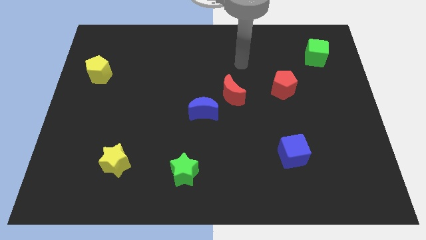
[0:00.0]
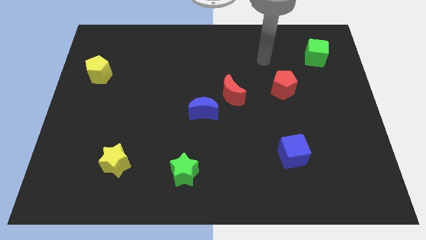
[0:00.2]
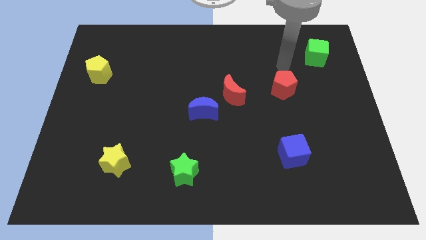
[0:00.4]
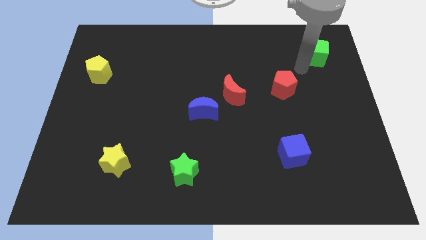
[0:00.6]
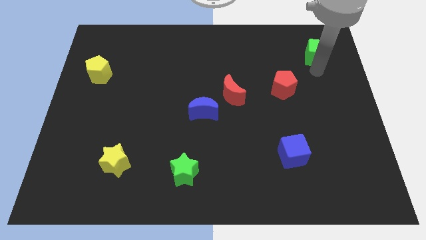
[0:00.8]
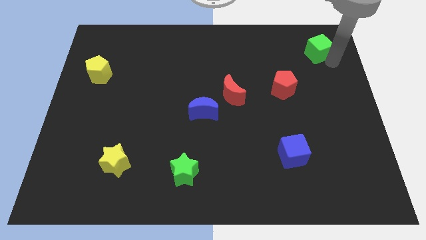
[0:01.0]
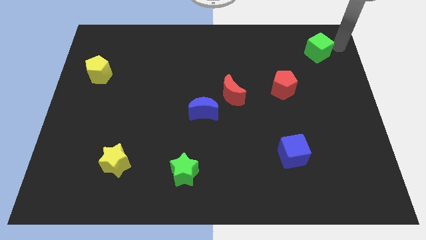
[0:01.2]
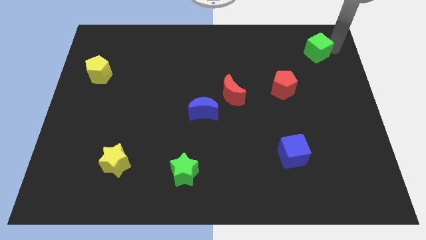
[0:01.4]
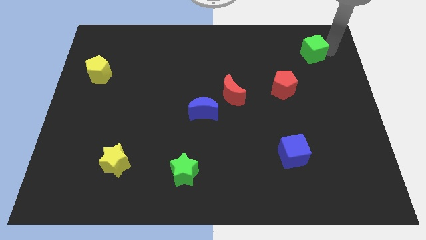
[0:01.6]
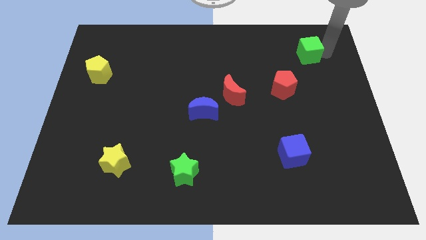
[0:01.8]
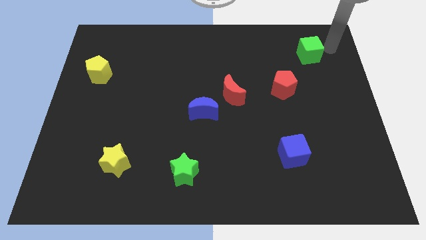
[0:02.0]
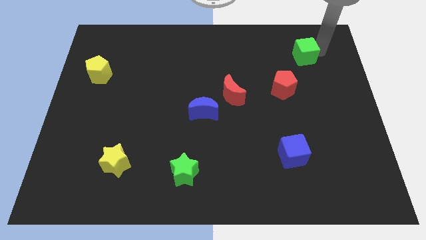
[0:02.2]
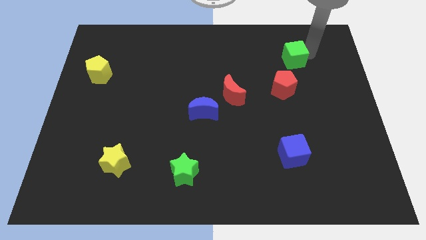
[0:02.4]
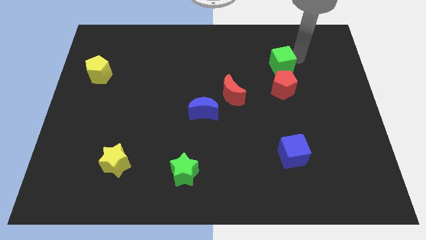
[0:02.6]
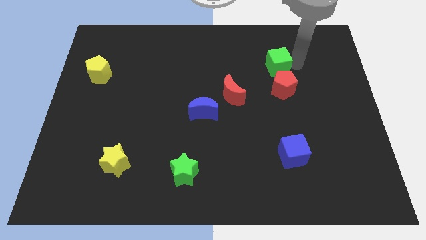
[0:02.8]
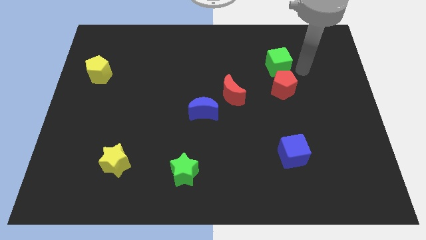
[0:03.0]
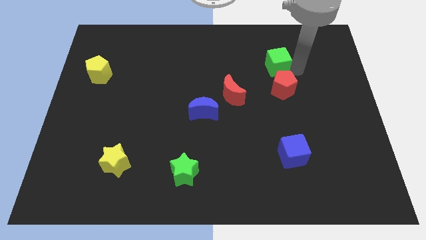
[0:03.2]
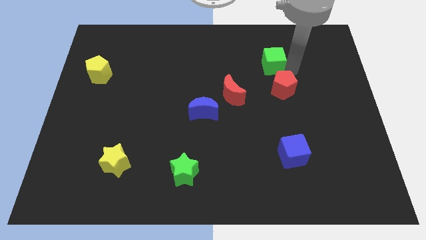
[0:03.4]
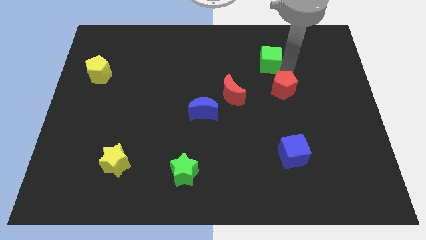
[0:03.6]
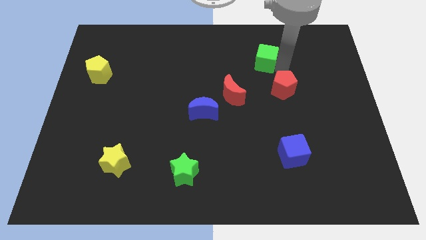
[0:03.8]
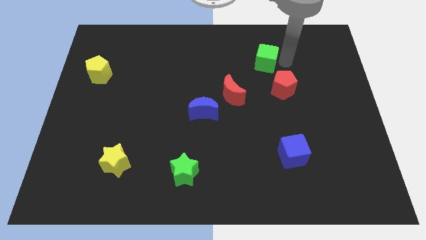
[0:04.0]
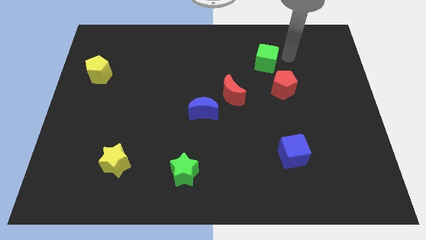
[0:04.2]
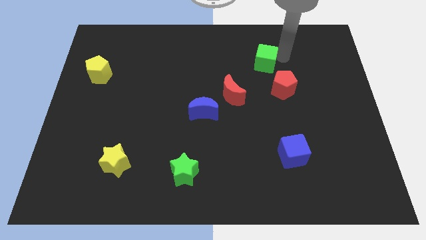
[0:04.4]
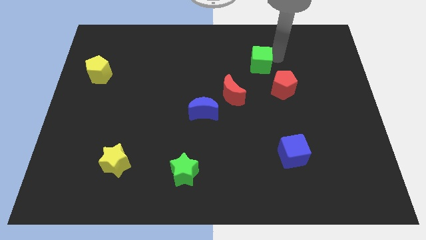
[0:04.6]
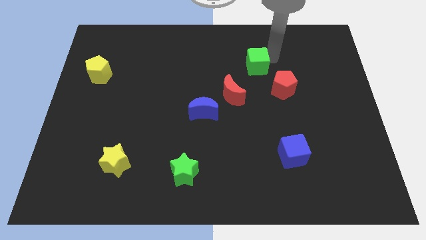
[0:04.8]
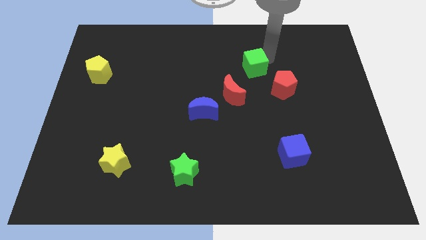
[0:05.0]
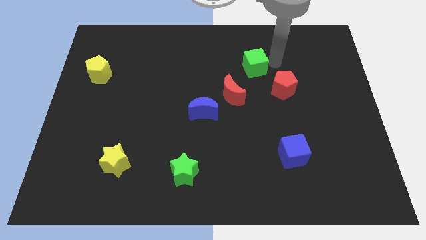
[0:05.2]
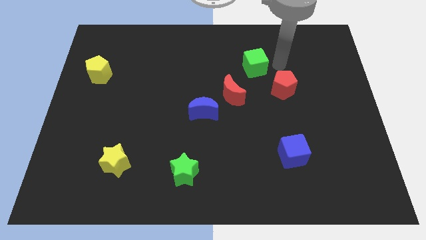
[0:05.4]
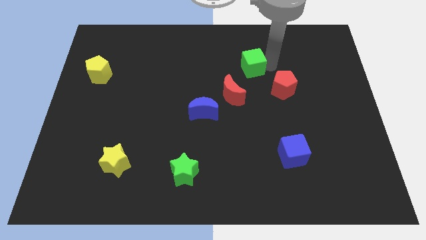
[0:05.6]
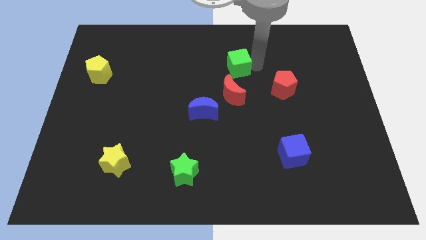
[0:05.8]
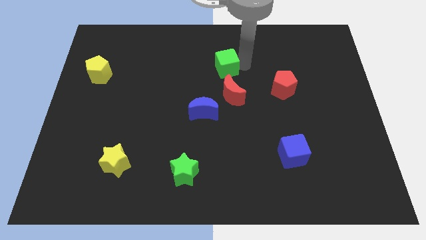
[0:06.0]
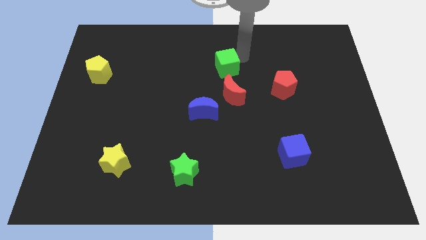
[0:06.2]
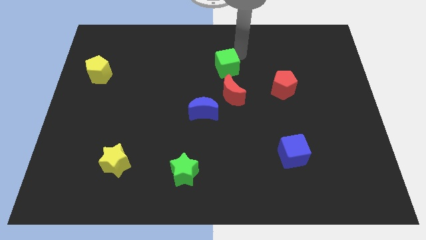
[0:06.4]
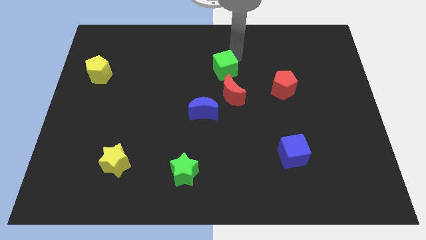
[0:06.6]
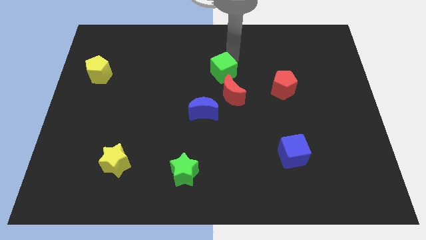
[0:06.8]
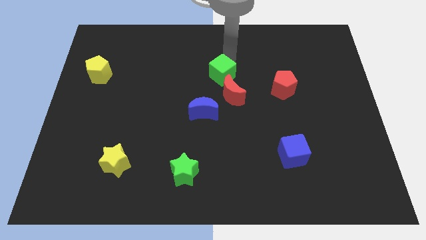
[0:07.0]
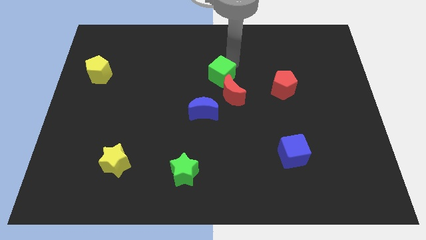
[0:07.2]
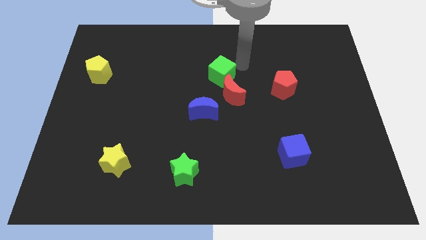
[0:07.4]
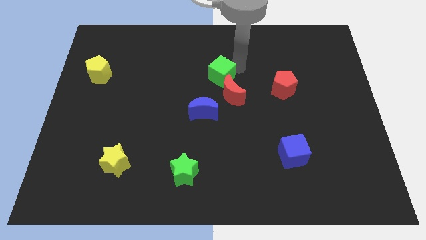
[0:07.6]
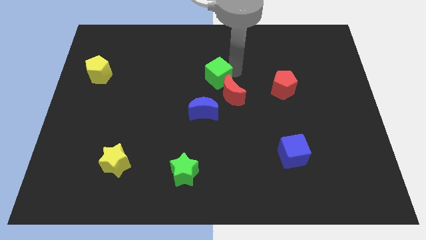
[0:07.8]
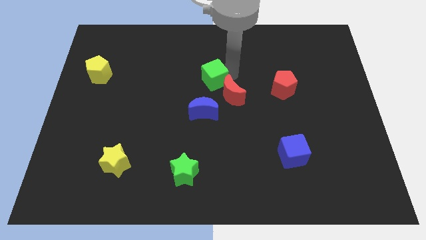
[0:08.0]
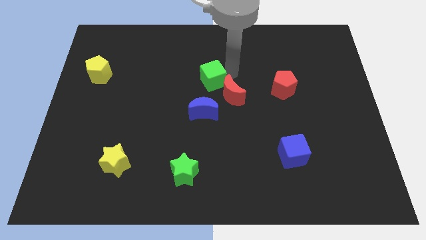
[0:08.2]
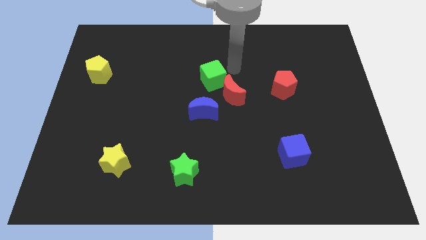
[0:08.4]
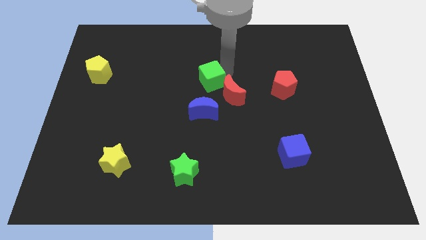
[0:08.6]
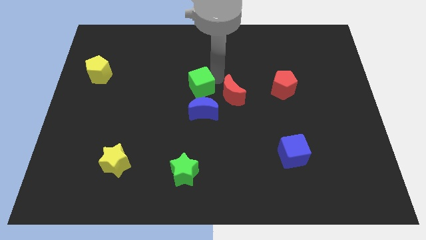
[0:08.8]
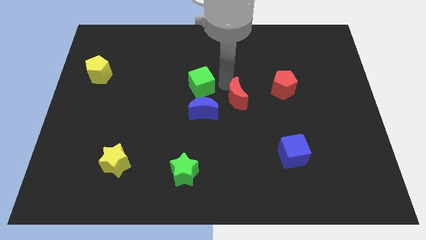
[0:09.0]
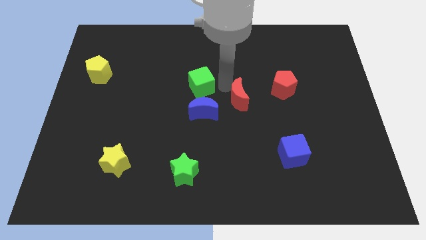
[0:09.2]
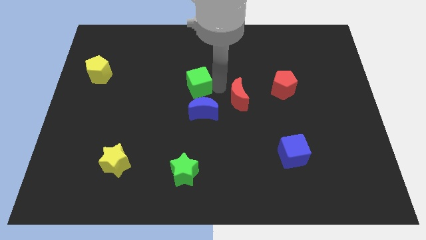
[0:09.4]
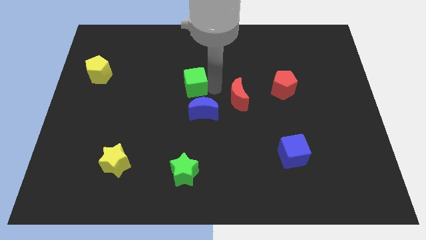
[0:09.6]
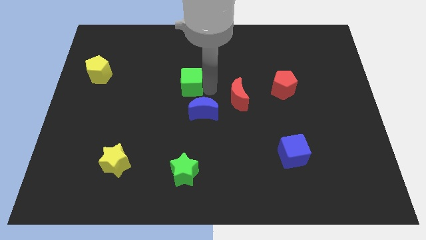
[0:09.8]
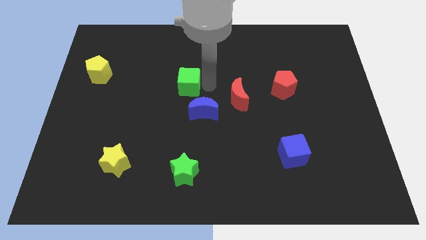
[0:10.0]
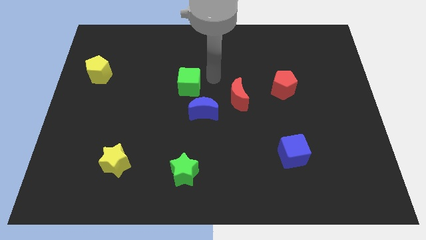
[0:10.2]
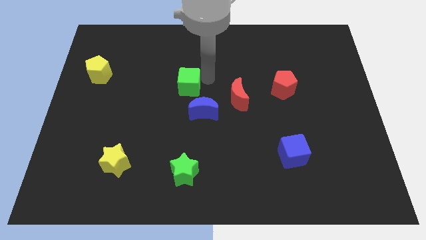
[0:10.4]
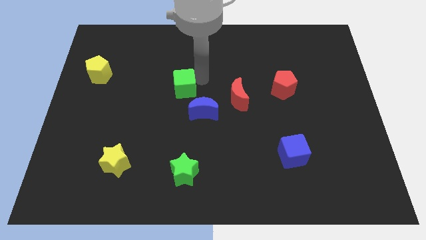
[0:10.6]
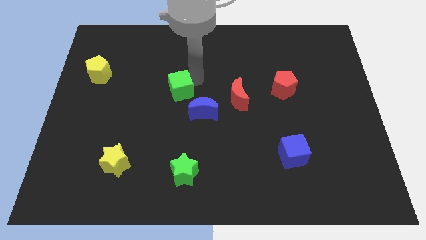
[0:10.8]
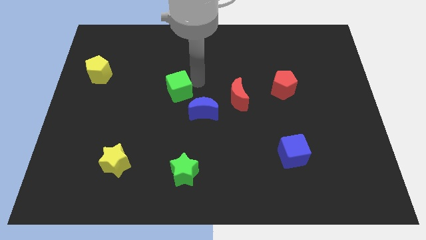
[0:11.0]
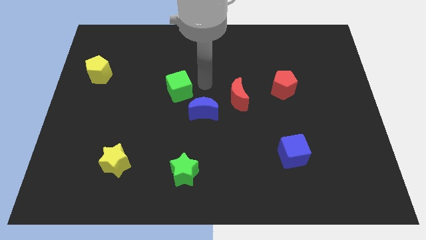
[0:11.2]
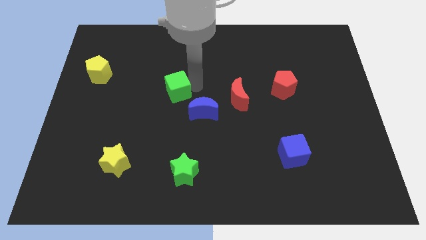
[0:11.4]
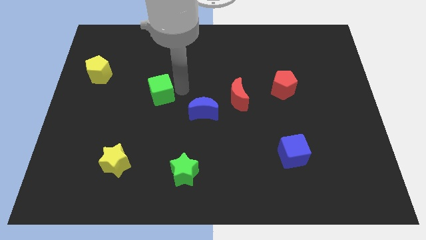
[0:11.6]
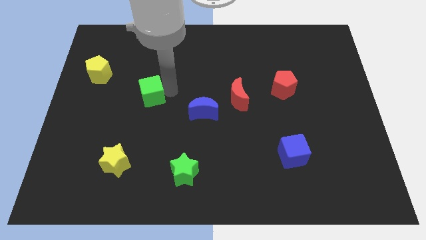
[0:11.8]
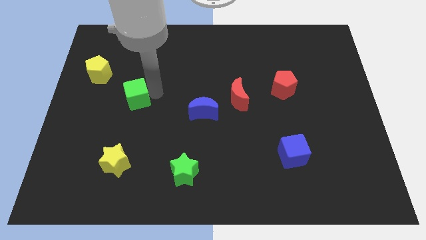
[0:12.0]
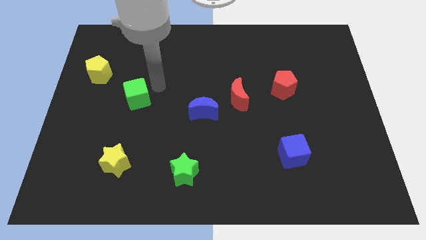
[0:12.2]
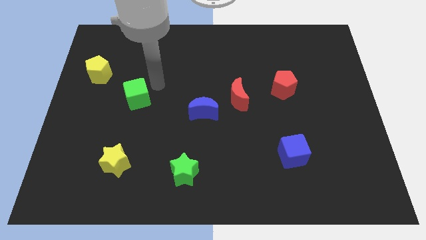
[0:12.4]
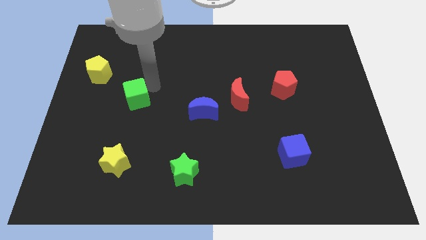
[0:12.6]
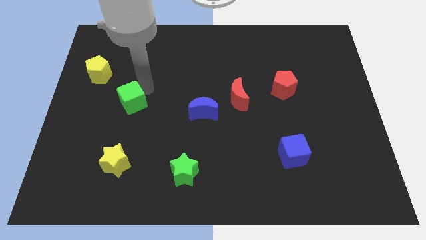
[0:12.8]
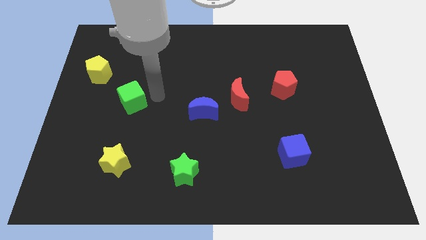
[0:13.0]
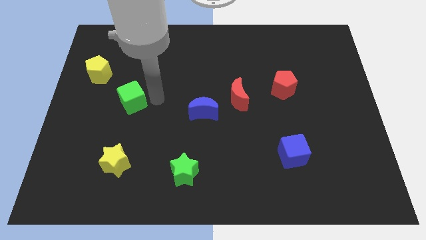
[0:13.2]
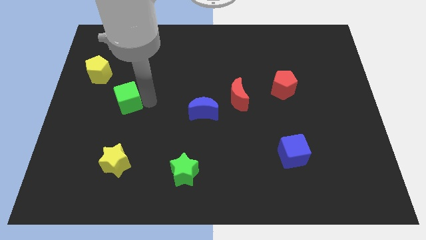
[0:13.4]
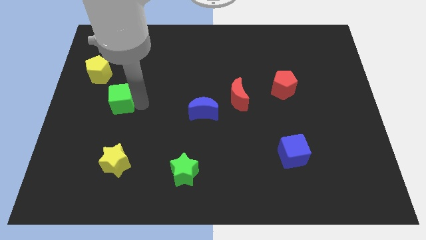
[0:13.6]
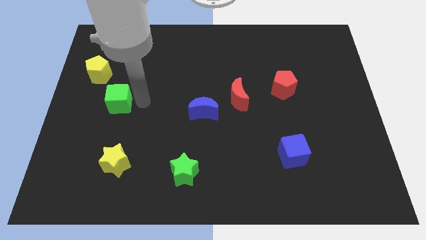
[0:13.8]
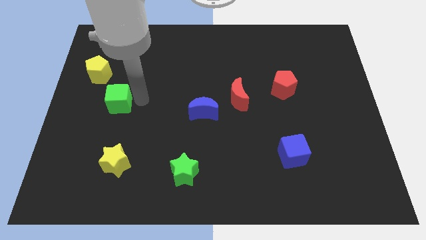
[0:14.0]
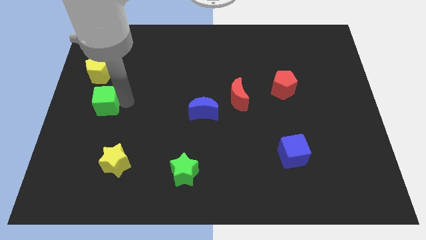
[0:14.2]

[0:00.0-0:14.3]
put the green cube below the yellow pentagon

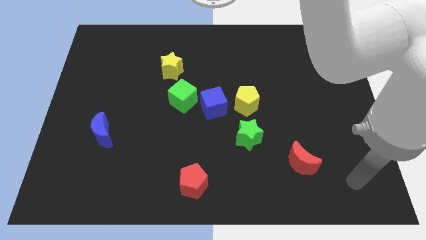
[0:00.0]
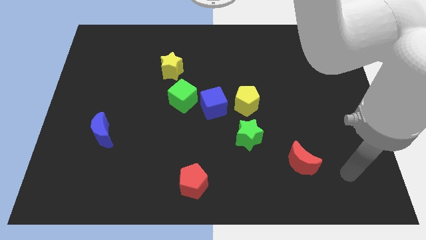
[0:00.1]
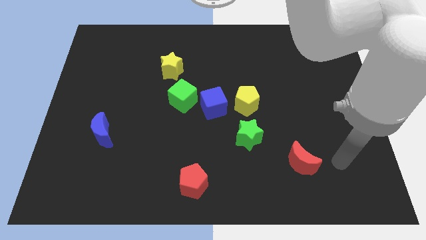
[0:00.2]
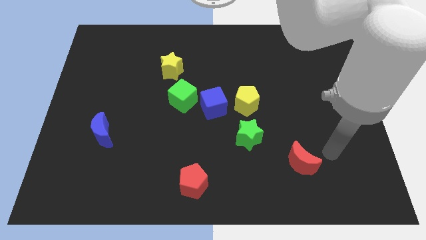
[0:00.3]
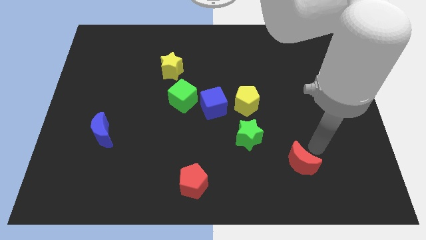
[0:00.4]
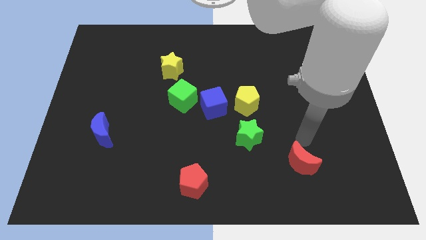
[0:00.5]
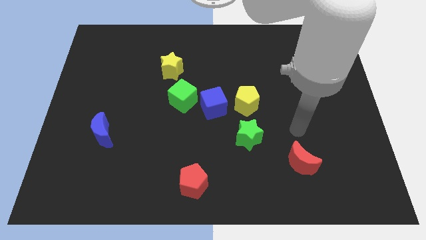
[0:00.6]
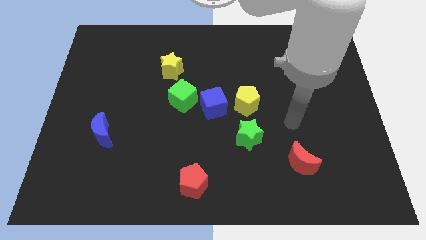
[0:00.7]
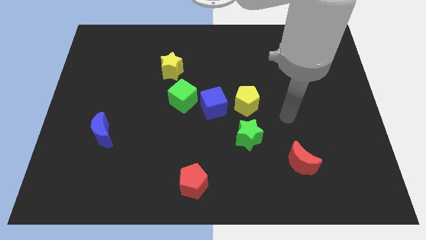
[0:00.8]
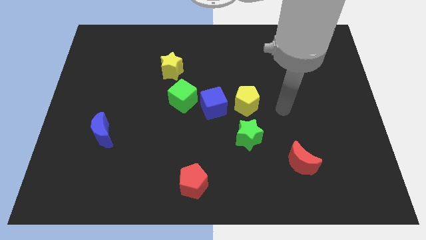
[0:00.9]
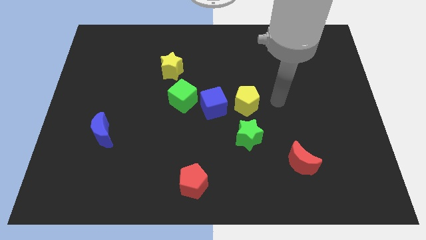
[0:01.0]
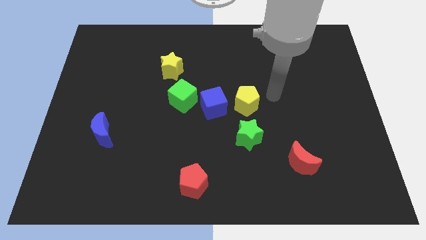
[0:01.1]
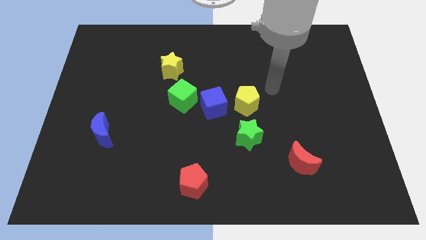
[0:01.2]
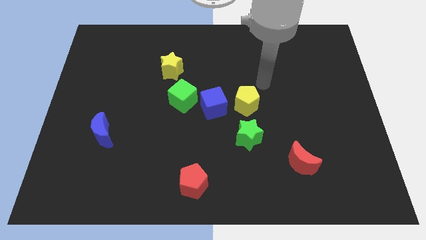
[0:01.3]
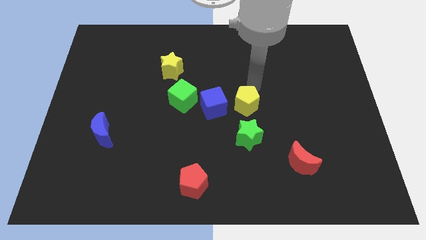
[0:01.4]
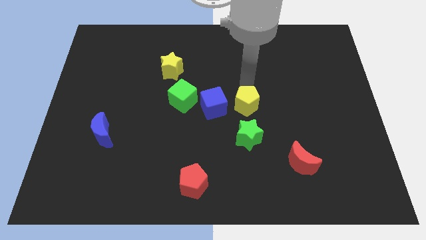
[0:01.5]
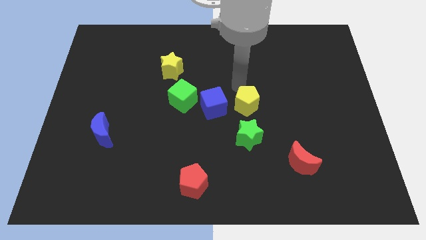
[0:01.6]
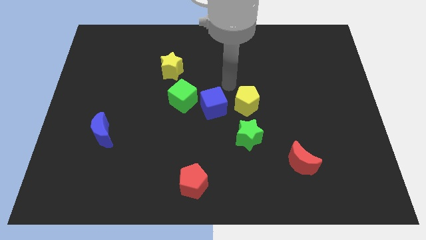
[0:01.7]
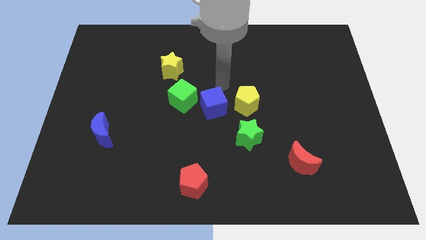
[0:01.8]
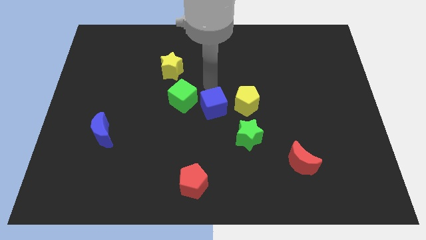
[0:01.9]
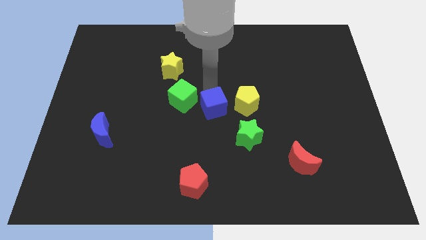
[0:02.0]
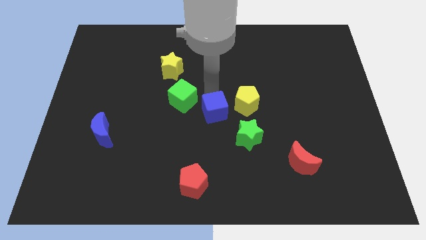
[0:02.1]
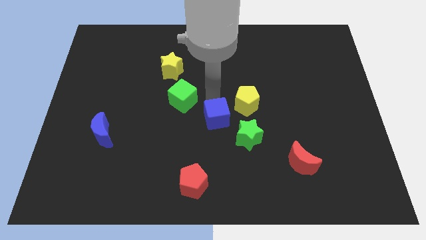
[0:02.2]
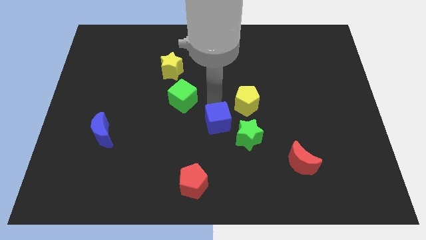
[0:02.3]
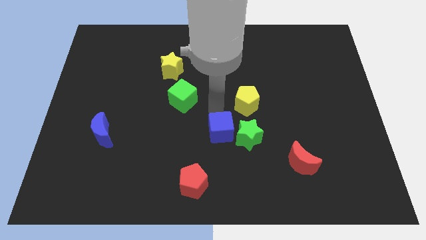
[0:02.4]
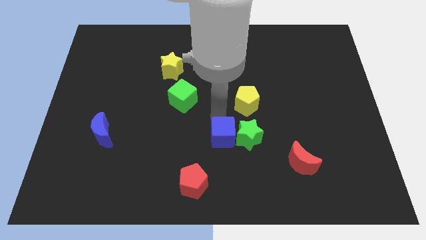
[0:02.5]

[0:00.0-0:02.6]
slide the blue cube to the bottom left of the green star
